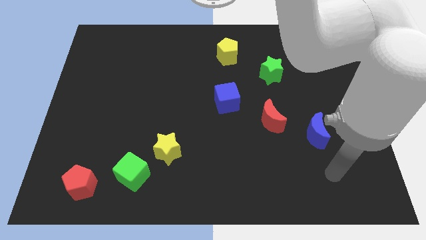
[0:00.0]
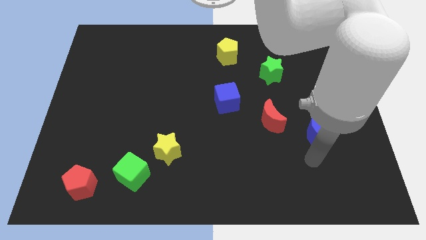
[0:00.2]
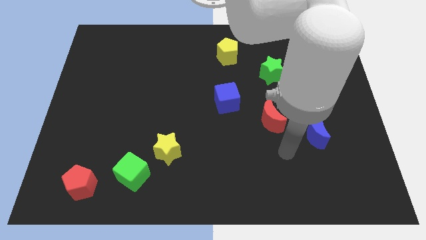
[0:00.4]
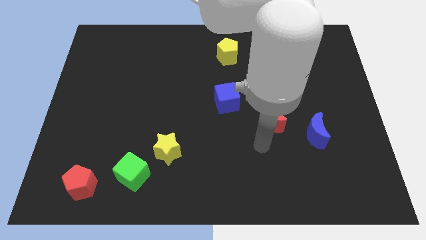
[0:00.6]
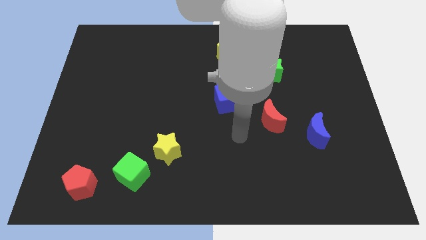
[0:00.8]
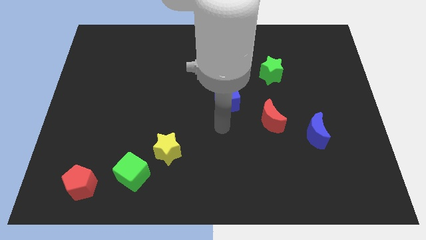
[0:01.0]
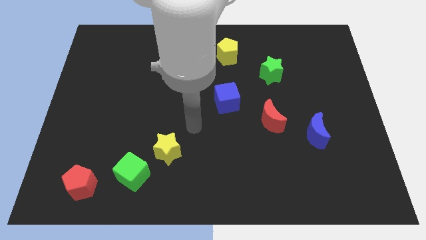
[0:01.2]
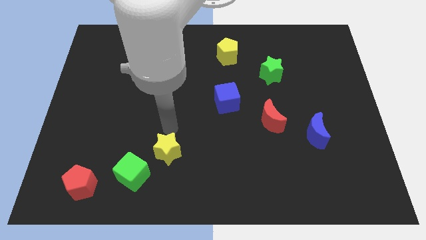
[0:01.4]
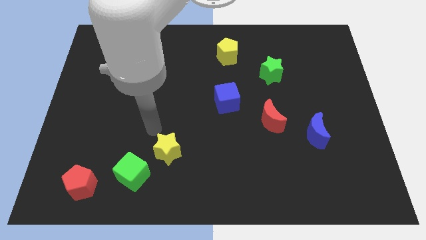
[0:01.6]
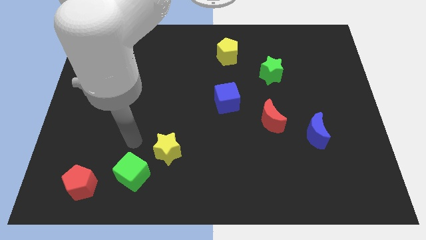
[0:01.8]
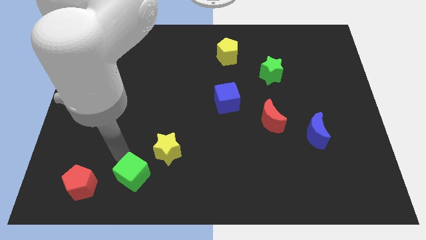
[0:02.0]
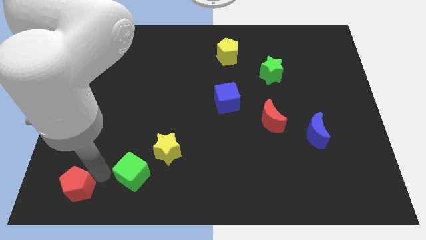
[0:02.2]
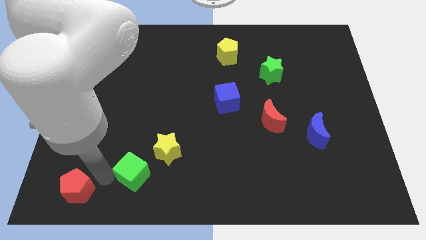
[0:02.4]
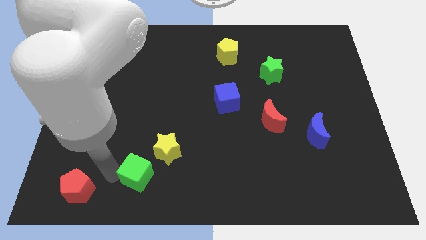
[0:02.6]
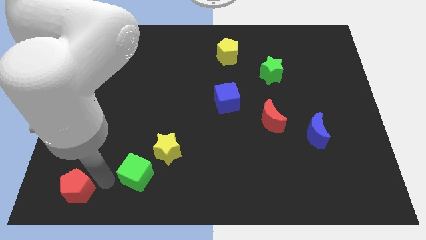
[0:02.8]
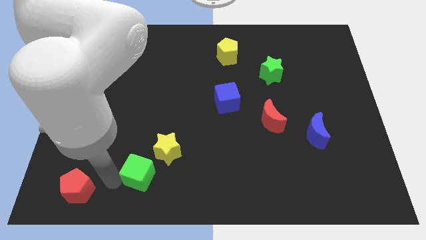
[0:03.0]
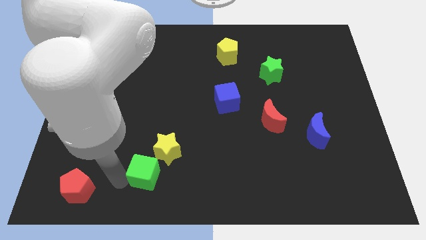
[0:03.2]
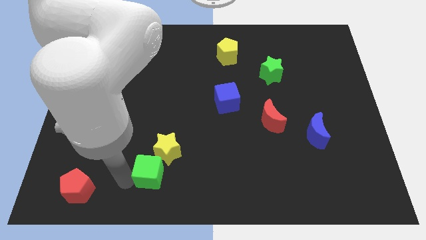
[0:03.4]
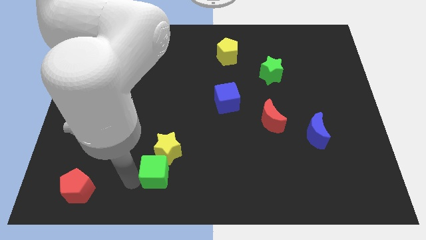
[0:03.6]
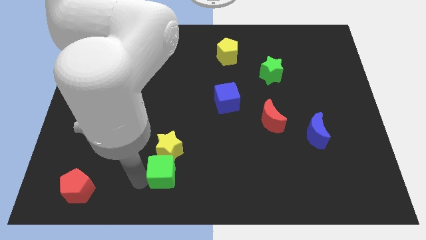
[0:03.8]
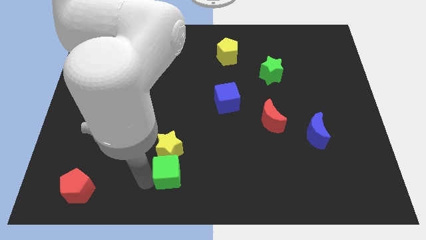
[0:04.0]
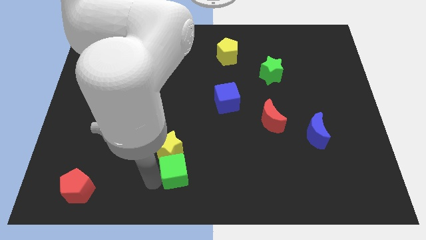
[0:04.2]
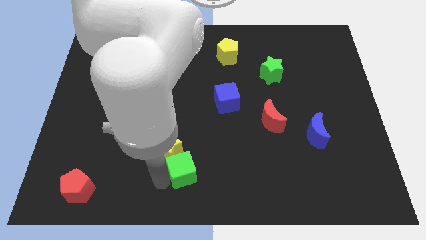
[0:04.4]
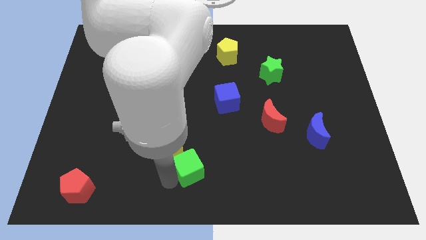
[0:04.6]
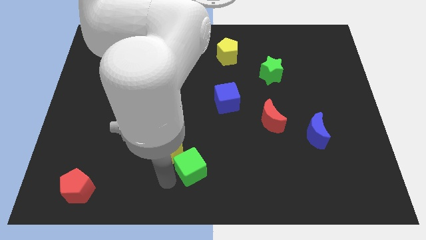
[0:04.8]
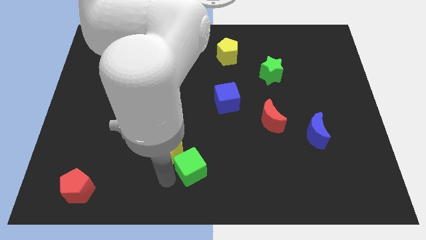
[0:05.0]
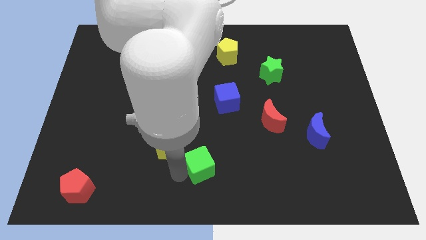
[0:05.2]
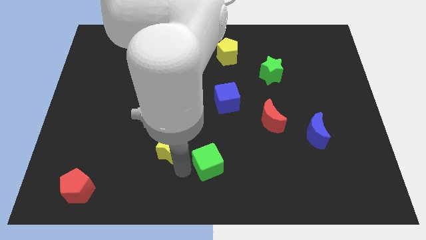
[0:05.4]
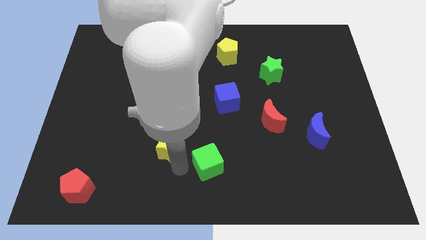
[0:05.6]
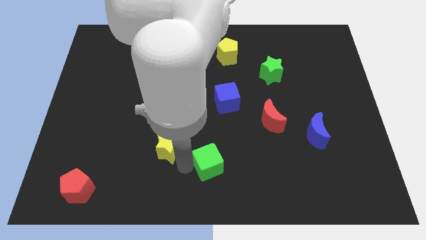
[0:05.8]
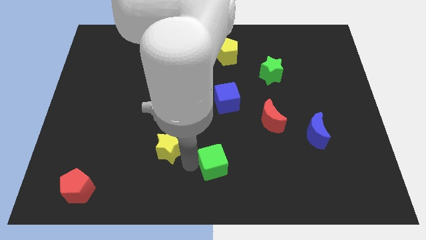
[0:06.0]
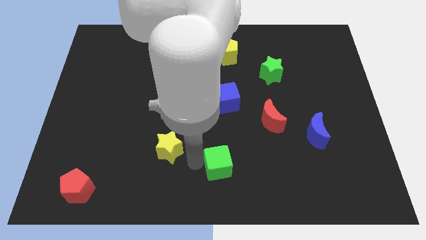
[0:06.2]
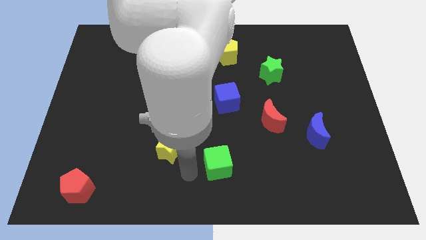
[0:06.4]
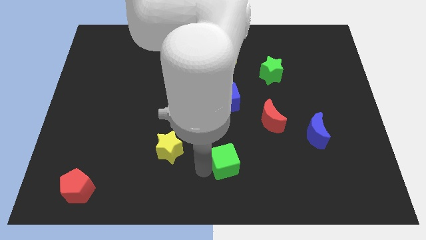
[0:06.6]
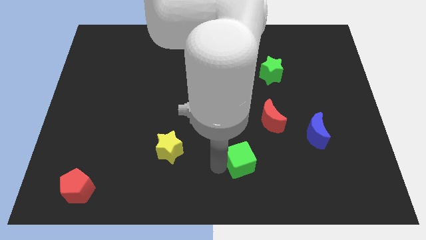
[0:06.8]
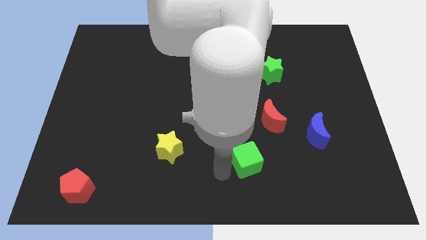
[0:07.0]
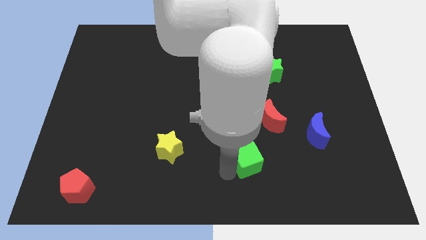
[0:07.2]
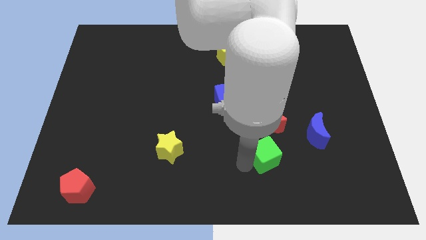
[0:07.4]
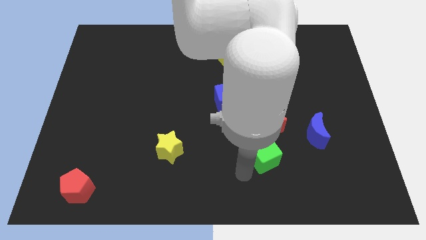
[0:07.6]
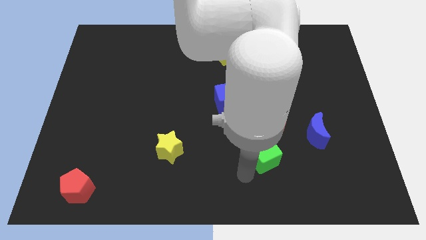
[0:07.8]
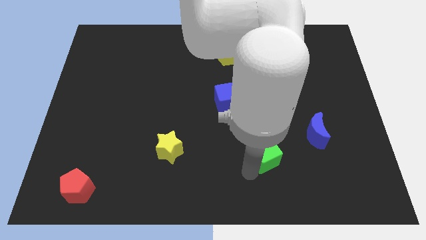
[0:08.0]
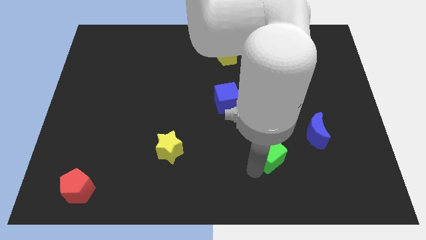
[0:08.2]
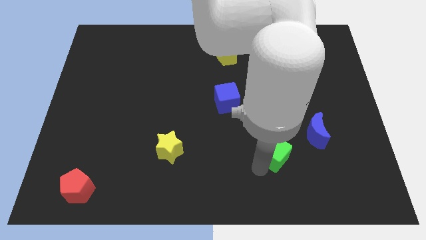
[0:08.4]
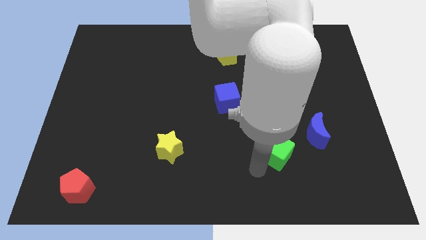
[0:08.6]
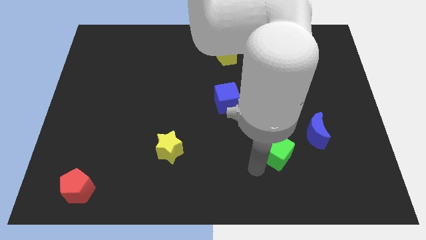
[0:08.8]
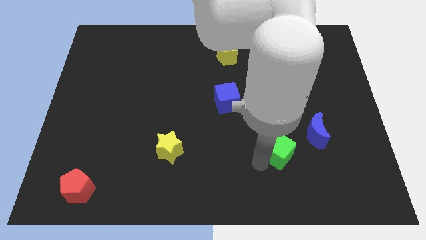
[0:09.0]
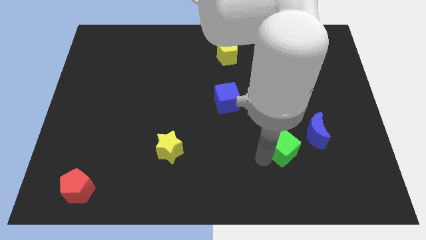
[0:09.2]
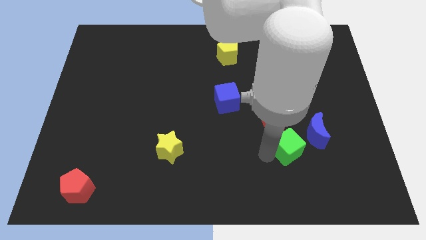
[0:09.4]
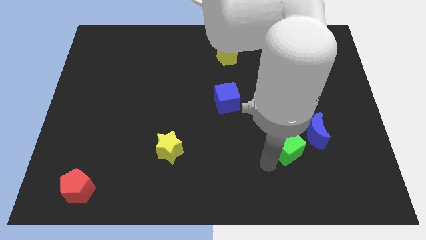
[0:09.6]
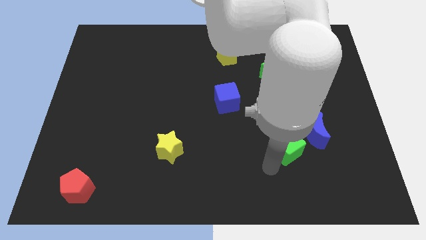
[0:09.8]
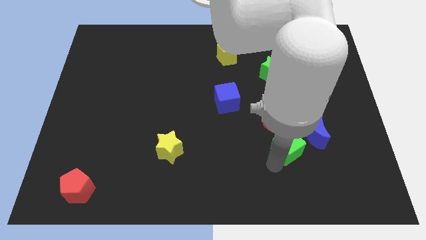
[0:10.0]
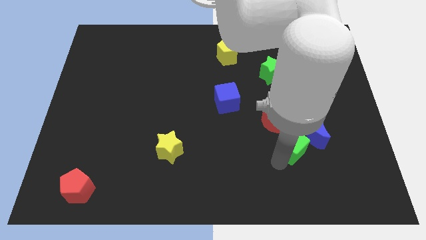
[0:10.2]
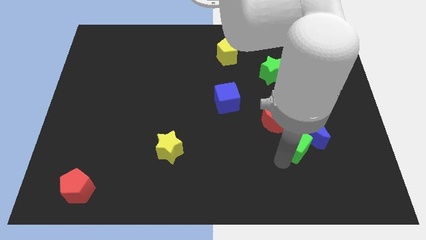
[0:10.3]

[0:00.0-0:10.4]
push the green cube towards the blue moon

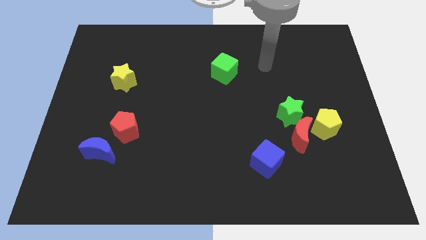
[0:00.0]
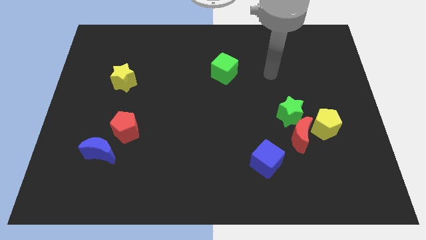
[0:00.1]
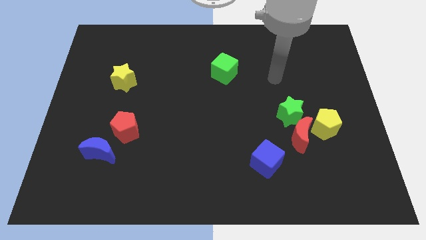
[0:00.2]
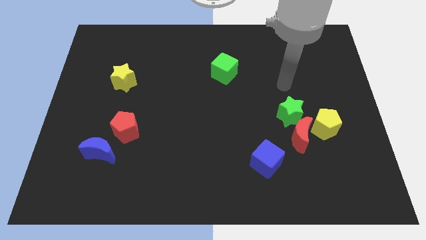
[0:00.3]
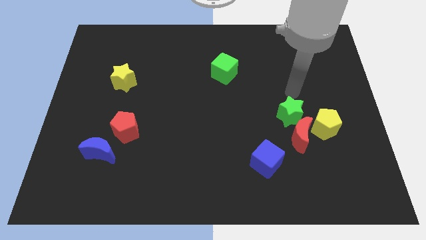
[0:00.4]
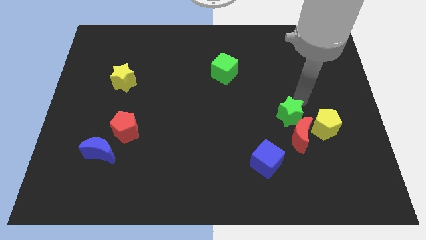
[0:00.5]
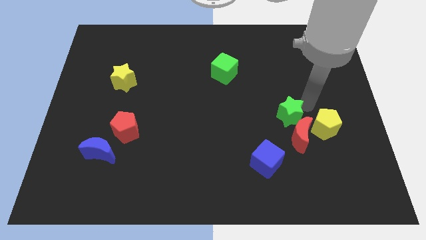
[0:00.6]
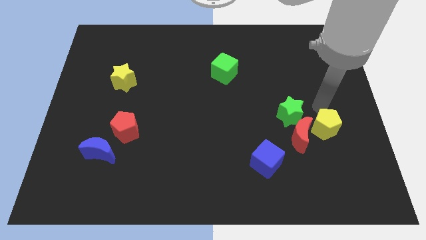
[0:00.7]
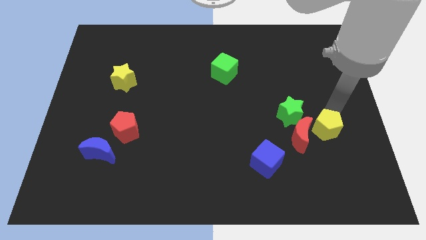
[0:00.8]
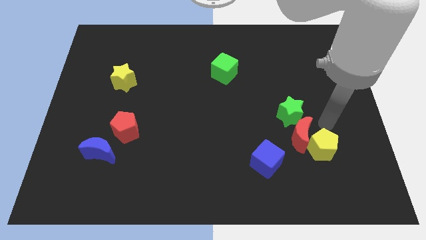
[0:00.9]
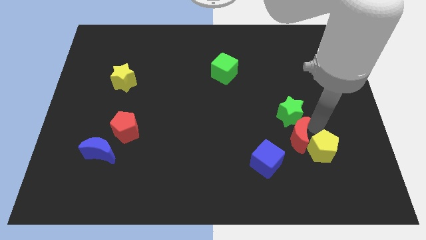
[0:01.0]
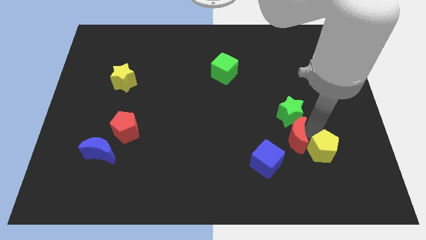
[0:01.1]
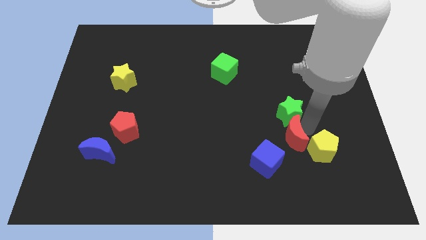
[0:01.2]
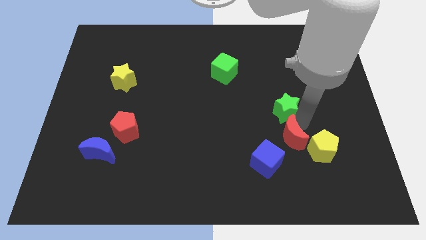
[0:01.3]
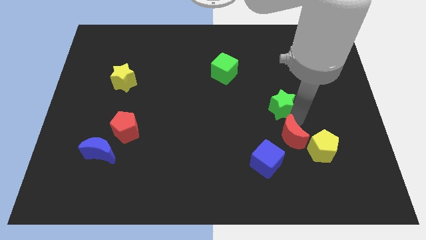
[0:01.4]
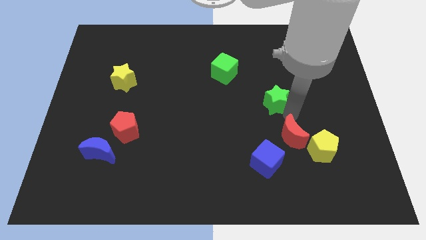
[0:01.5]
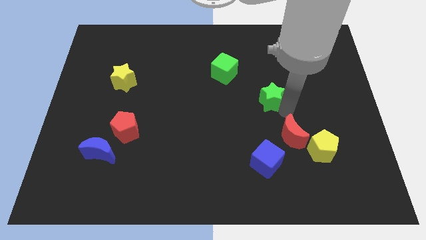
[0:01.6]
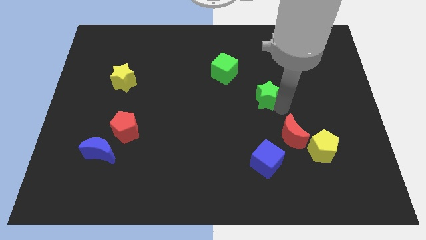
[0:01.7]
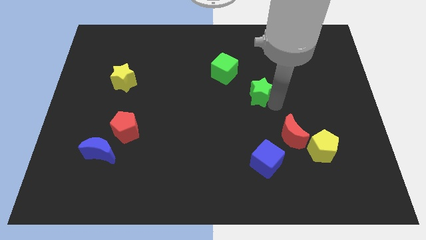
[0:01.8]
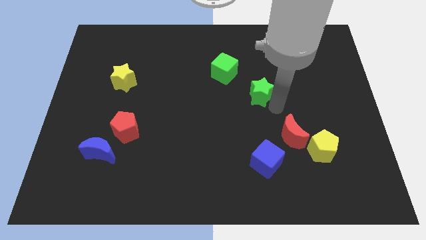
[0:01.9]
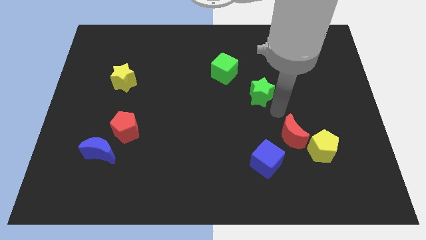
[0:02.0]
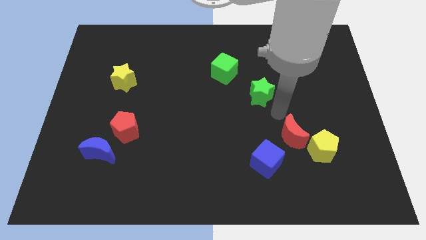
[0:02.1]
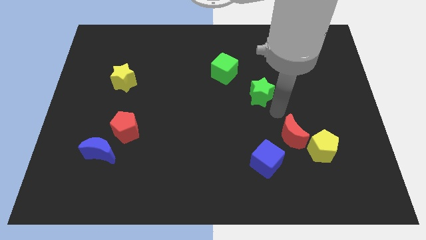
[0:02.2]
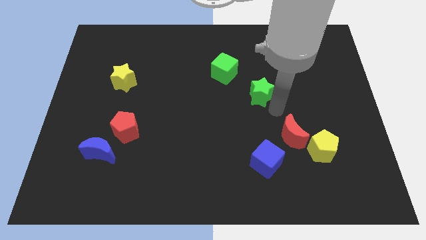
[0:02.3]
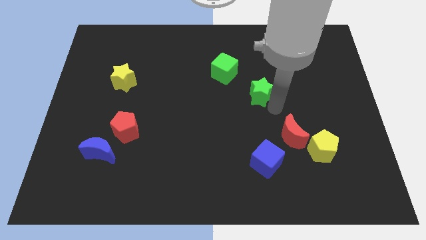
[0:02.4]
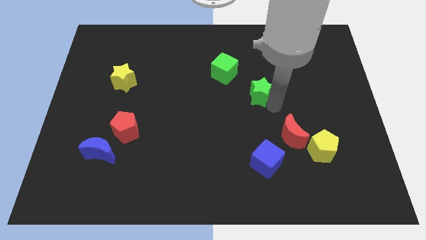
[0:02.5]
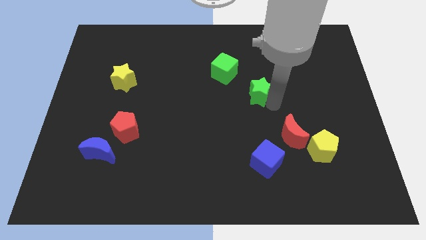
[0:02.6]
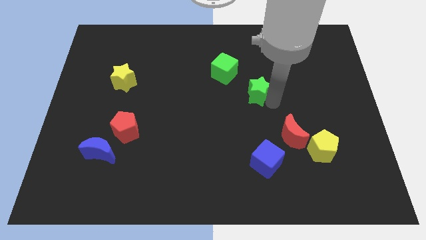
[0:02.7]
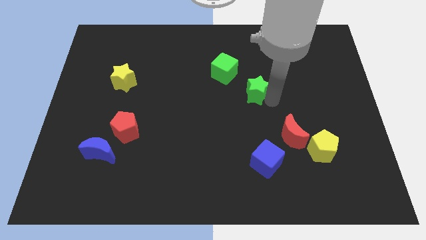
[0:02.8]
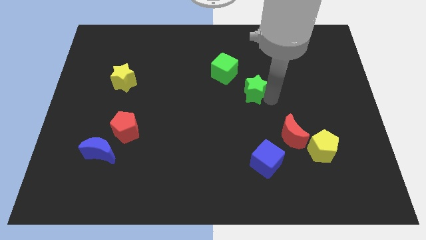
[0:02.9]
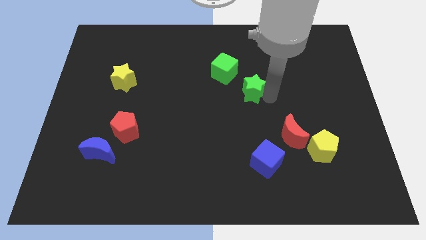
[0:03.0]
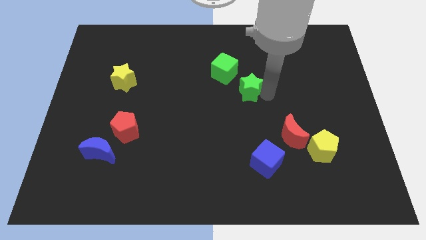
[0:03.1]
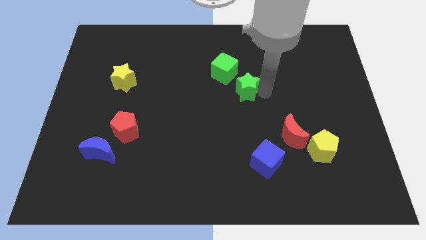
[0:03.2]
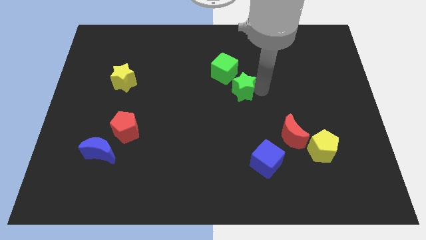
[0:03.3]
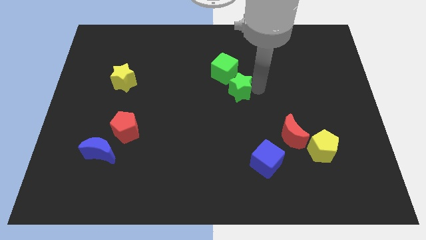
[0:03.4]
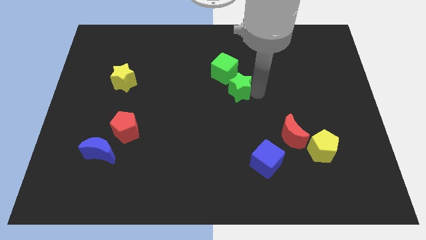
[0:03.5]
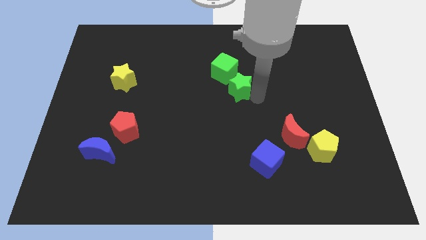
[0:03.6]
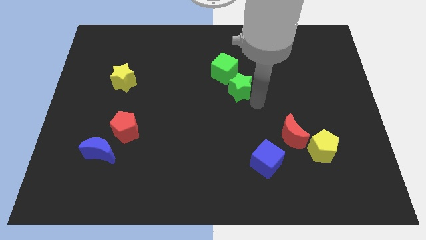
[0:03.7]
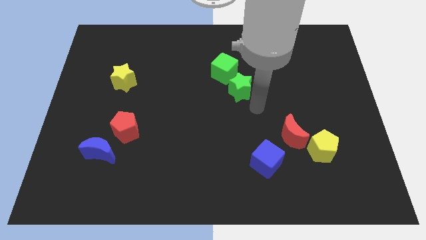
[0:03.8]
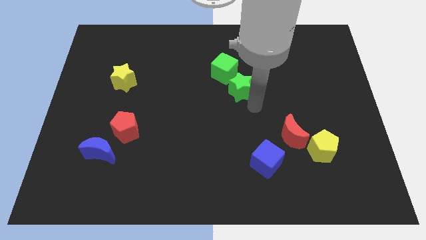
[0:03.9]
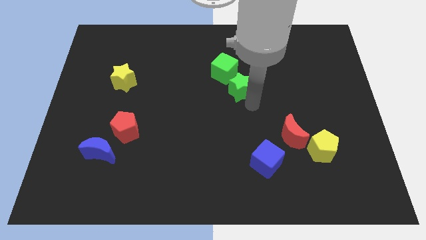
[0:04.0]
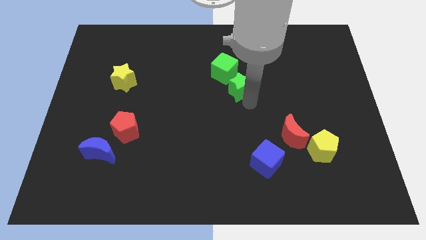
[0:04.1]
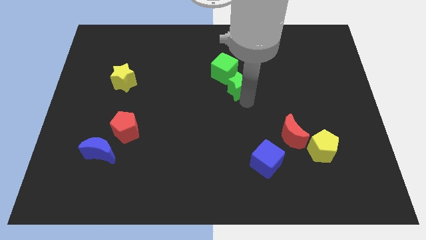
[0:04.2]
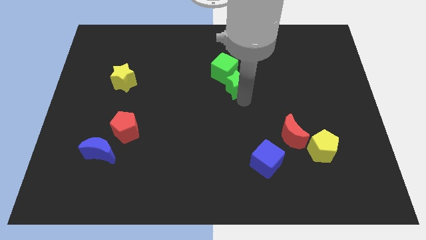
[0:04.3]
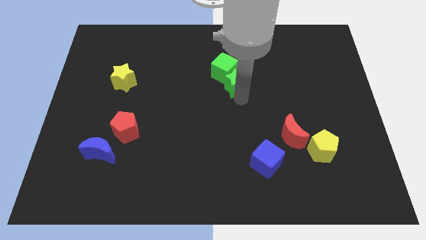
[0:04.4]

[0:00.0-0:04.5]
move the green star close to the green cube
